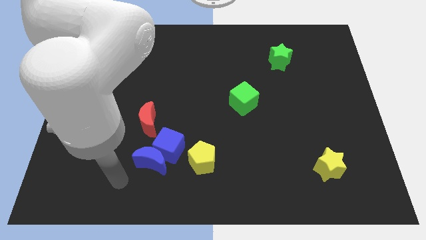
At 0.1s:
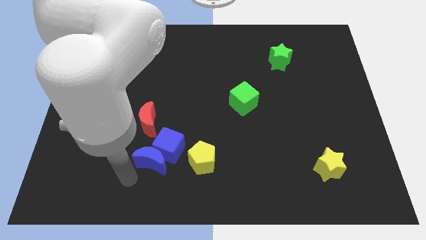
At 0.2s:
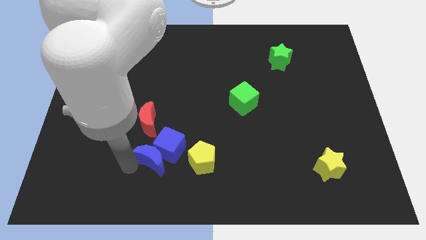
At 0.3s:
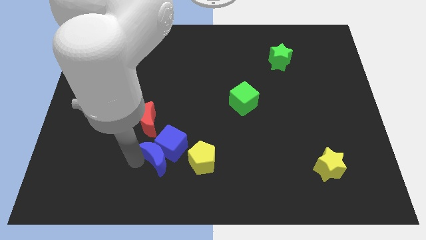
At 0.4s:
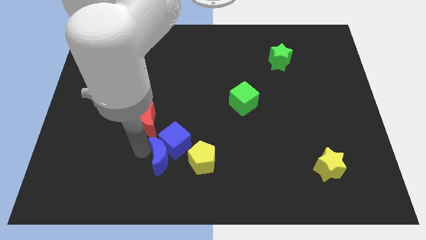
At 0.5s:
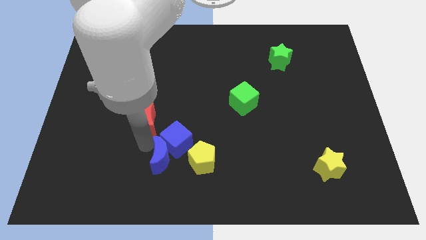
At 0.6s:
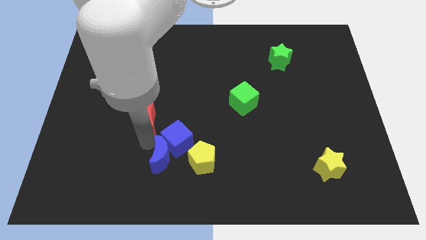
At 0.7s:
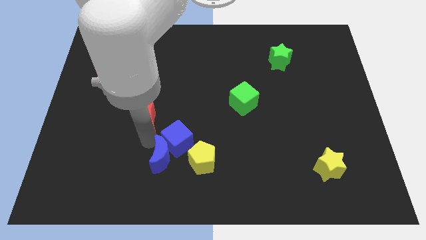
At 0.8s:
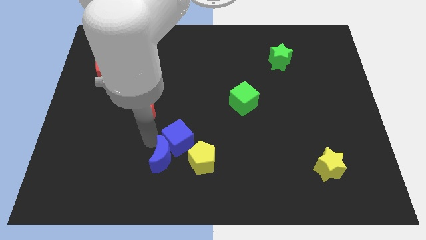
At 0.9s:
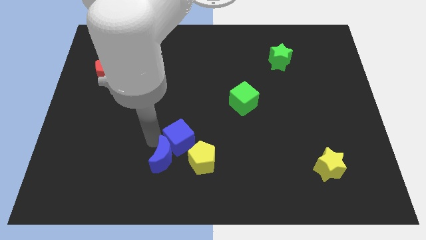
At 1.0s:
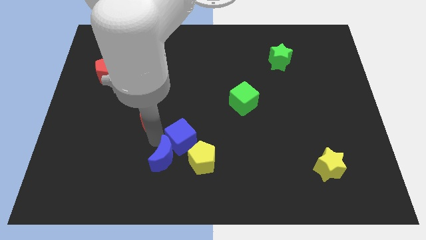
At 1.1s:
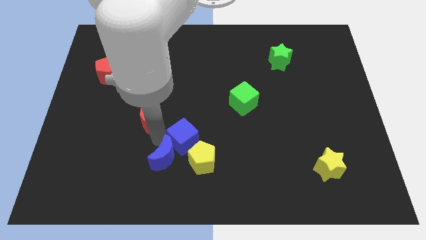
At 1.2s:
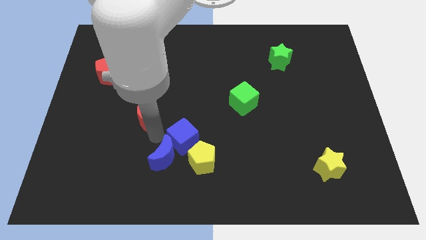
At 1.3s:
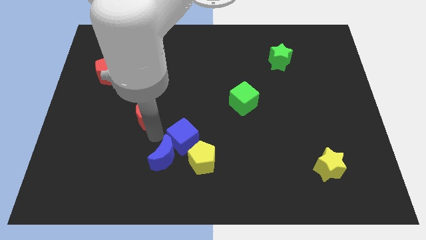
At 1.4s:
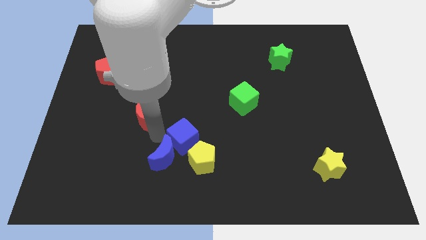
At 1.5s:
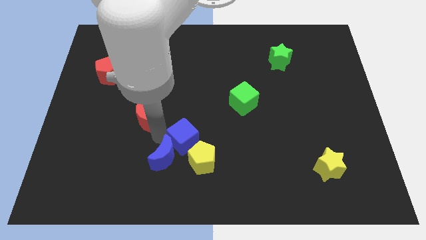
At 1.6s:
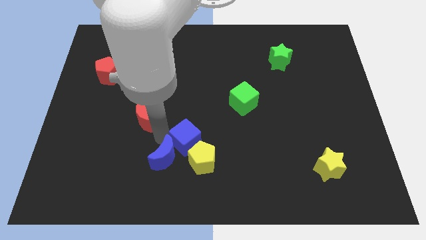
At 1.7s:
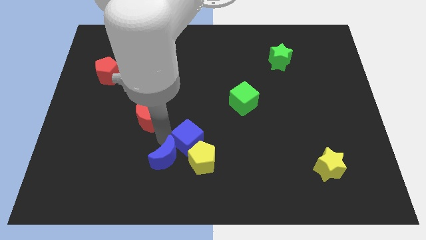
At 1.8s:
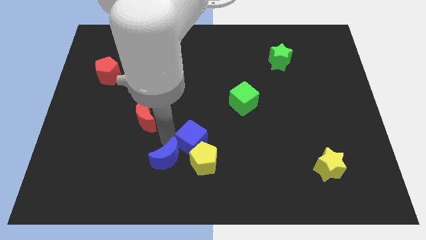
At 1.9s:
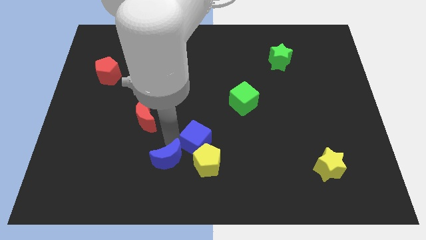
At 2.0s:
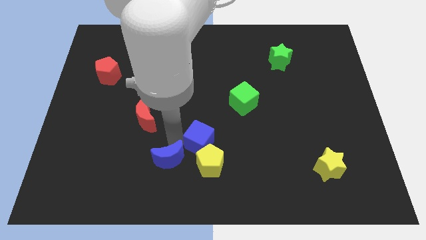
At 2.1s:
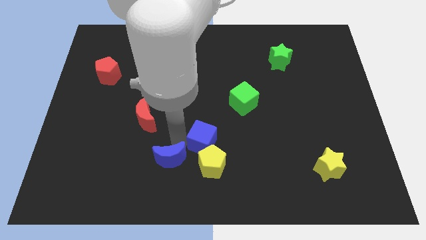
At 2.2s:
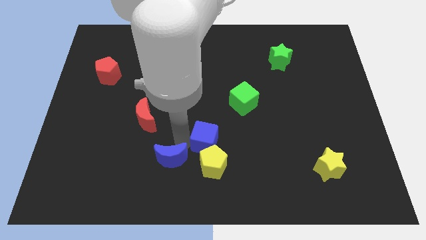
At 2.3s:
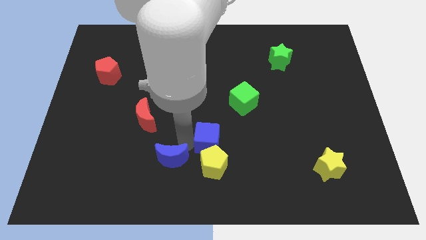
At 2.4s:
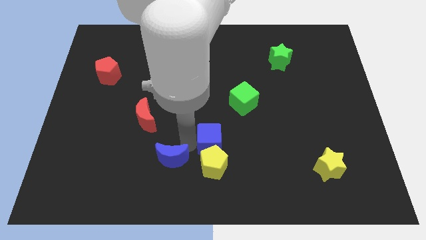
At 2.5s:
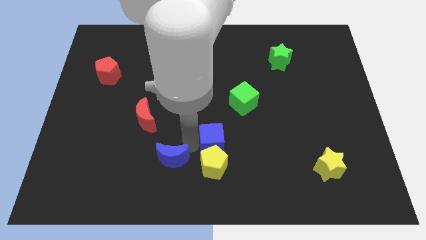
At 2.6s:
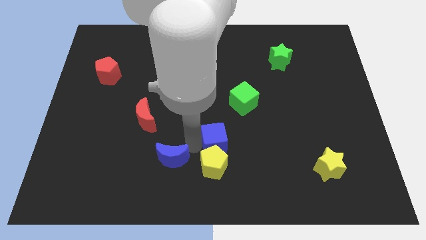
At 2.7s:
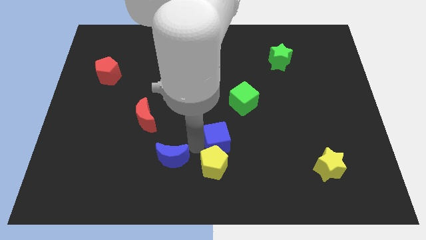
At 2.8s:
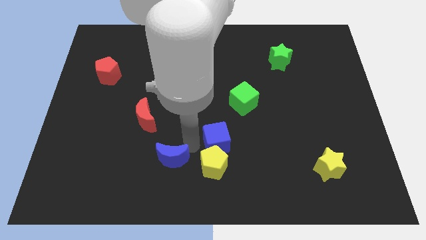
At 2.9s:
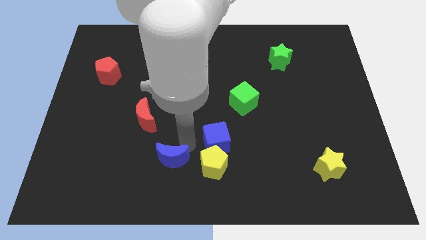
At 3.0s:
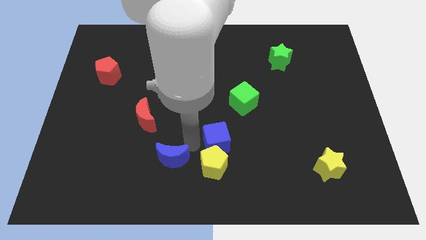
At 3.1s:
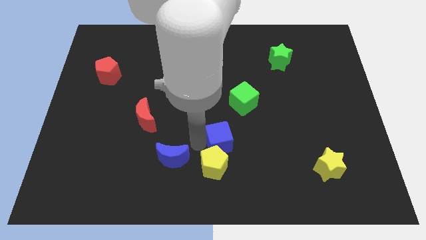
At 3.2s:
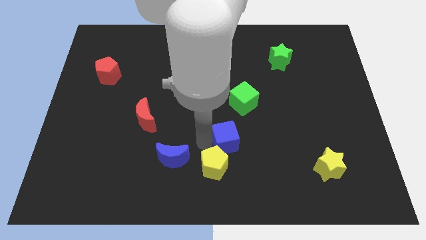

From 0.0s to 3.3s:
pull the blue cube apart from the blue moon, yellow pentagon, and red moon

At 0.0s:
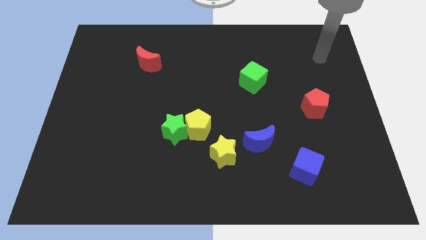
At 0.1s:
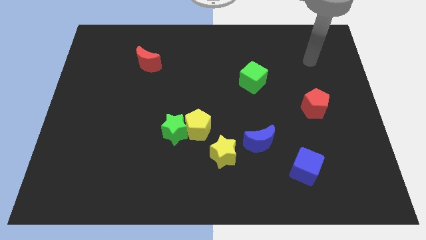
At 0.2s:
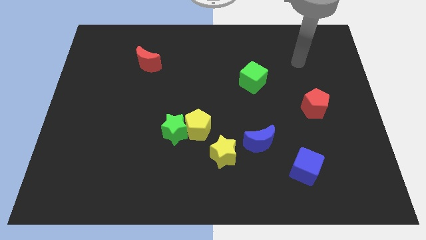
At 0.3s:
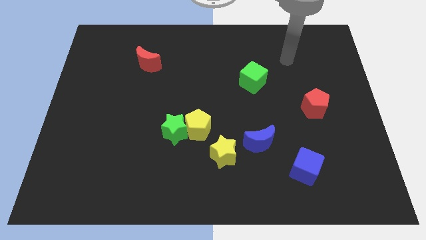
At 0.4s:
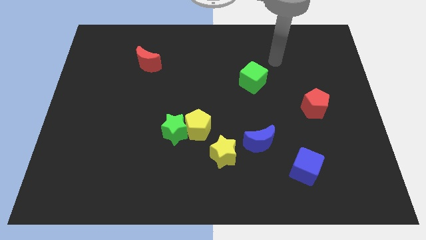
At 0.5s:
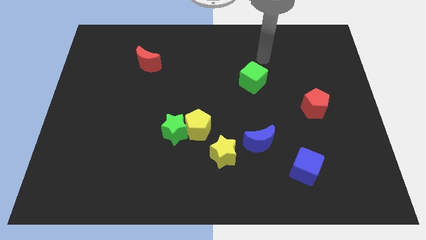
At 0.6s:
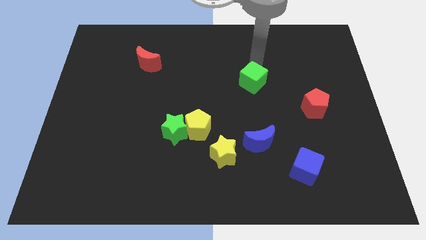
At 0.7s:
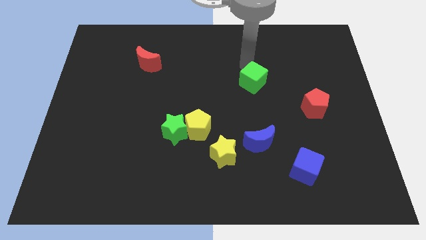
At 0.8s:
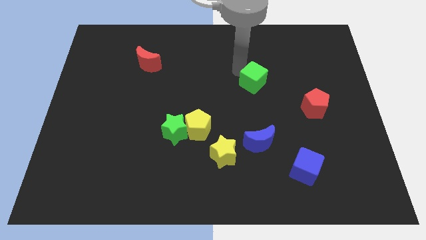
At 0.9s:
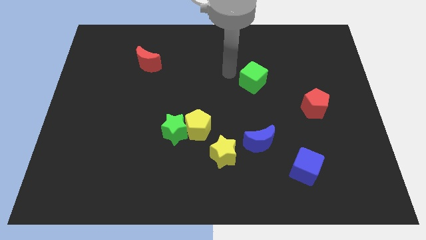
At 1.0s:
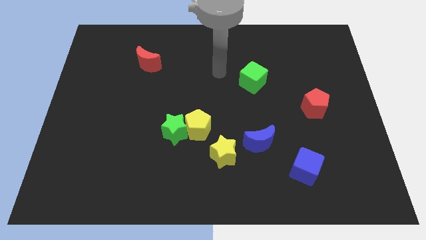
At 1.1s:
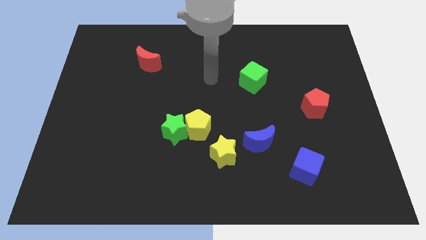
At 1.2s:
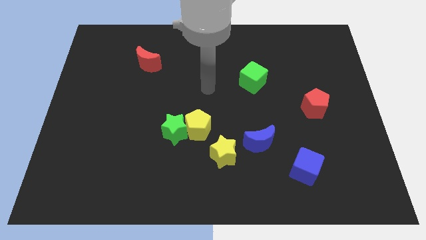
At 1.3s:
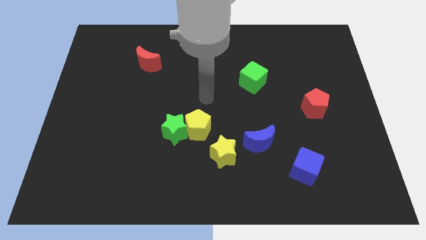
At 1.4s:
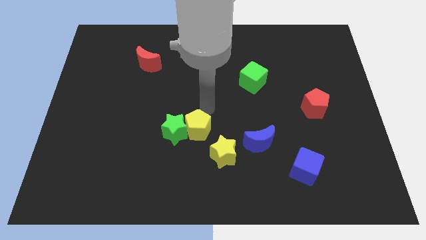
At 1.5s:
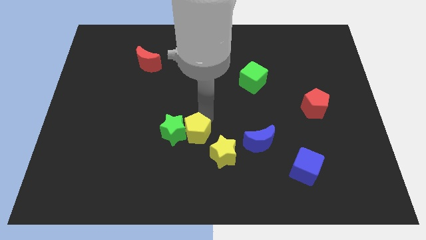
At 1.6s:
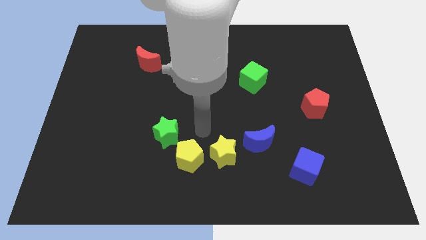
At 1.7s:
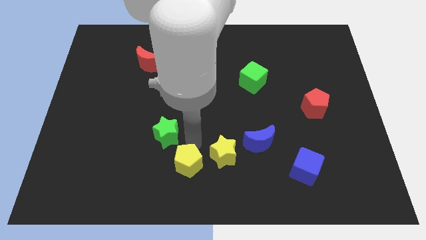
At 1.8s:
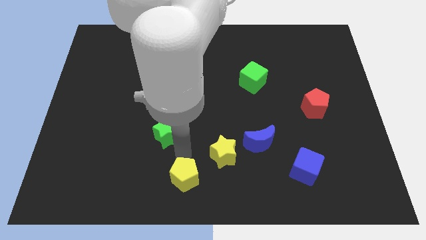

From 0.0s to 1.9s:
separate the green star from the yellow pentagon

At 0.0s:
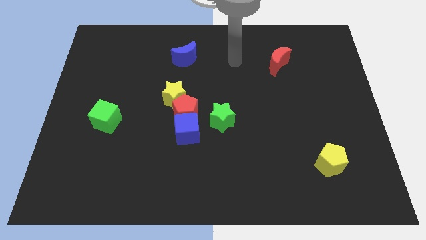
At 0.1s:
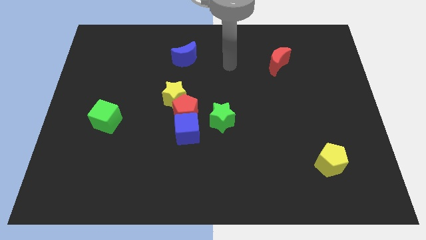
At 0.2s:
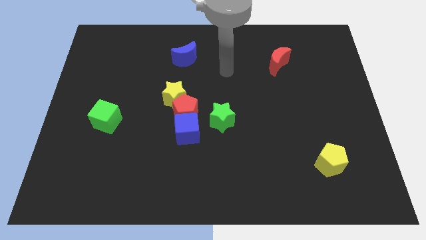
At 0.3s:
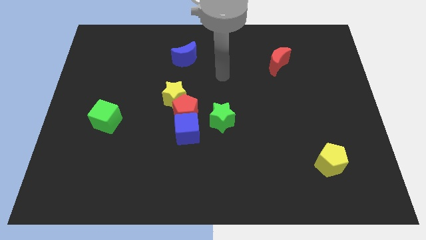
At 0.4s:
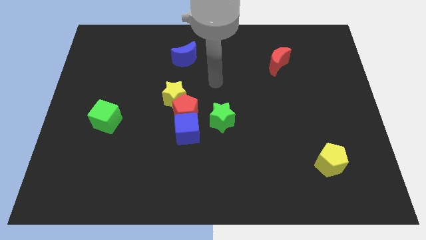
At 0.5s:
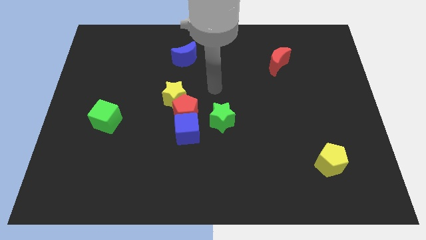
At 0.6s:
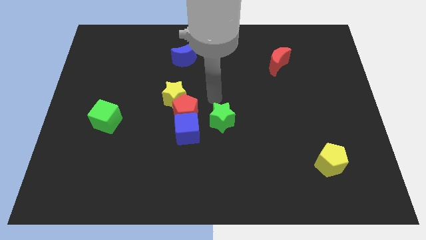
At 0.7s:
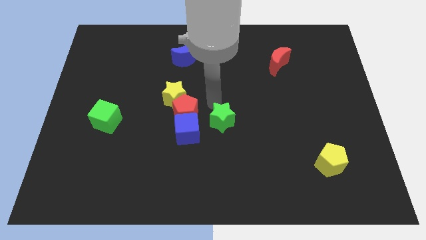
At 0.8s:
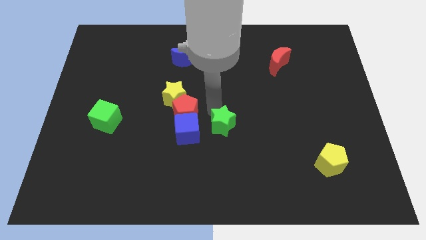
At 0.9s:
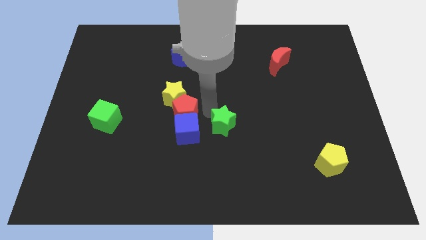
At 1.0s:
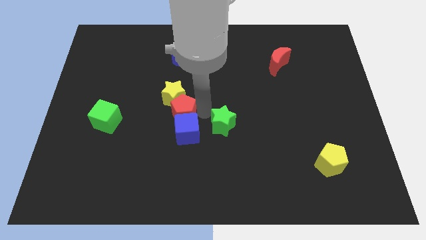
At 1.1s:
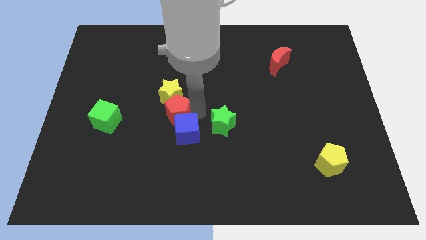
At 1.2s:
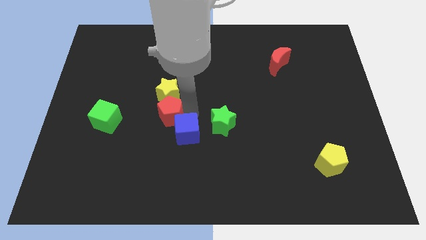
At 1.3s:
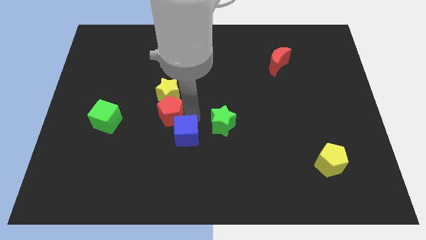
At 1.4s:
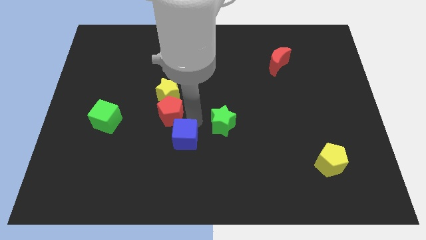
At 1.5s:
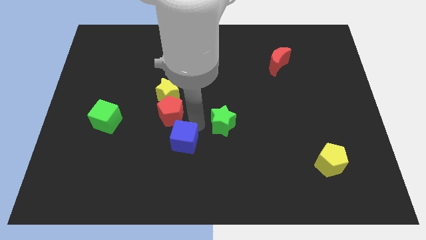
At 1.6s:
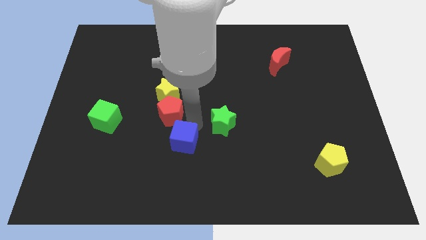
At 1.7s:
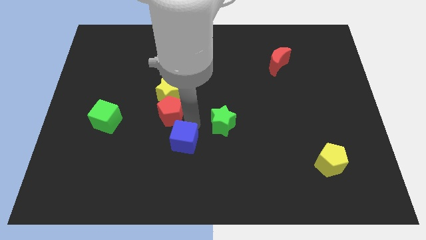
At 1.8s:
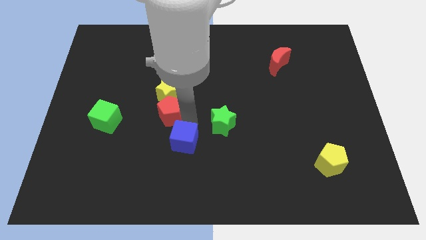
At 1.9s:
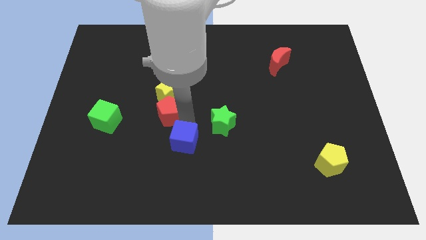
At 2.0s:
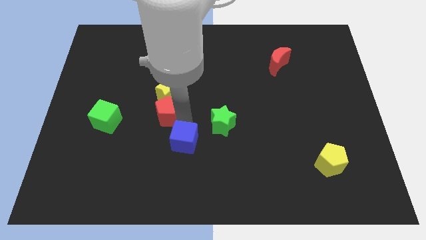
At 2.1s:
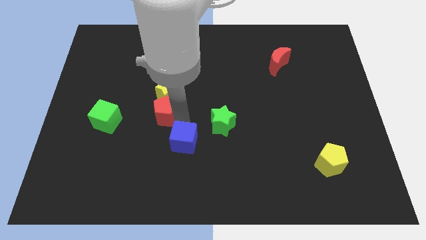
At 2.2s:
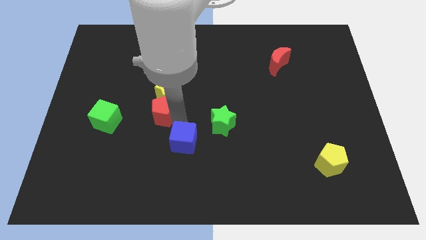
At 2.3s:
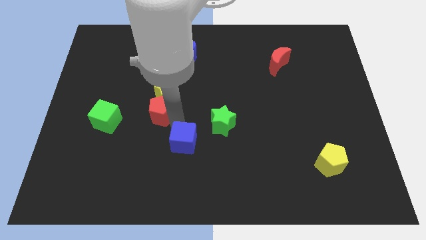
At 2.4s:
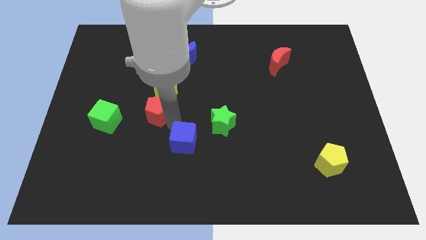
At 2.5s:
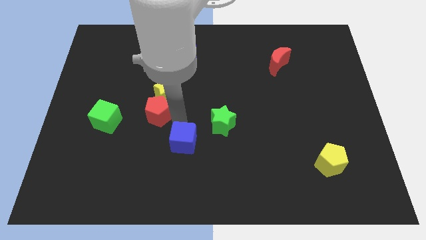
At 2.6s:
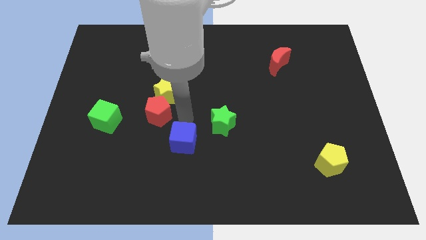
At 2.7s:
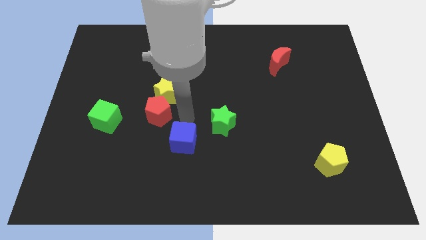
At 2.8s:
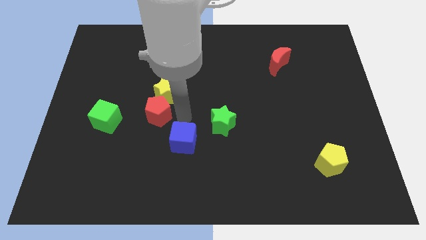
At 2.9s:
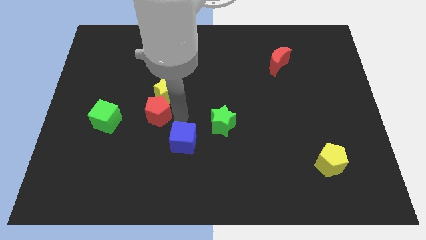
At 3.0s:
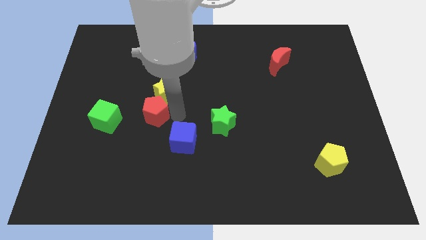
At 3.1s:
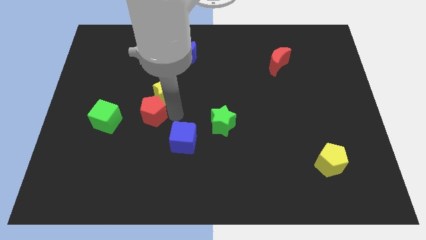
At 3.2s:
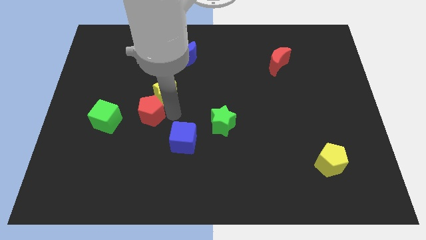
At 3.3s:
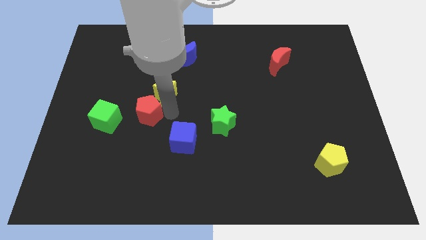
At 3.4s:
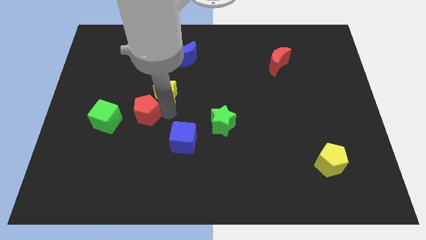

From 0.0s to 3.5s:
pull the red pentagon apart from the clump

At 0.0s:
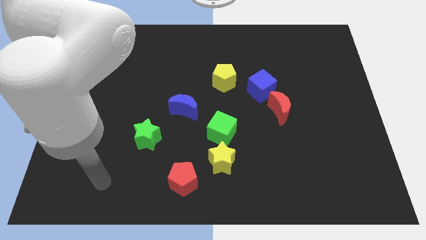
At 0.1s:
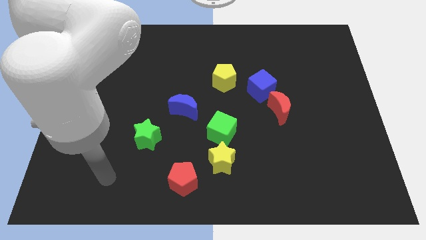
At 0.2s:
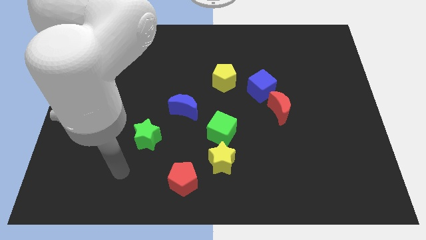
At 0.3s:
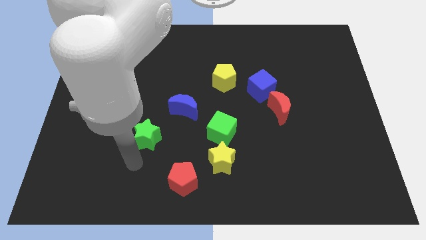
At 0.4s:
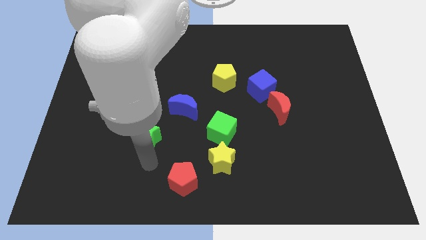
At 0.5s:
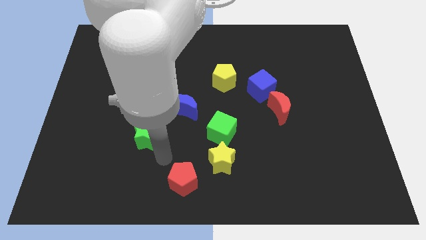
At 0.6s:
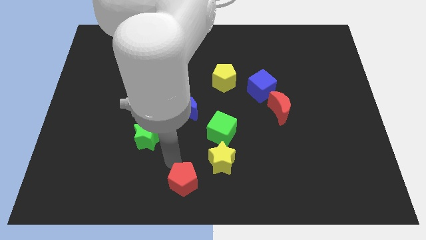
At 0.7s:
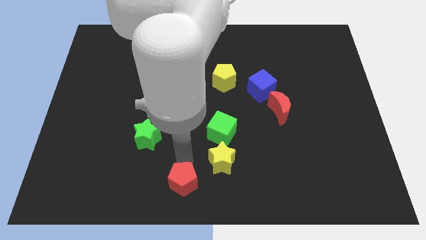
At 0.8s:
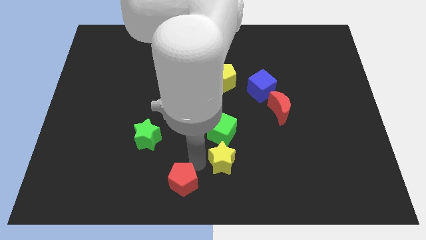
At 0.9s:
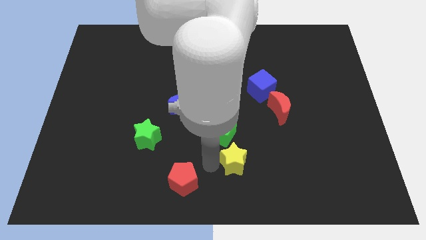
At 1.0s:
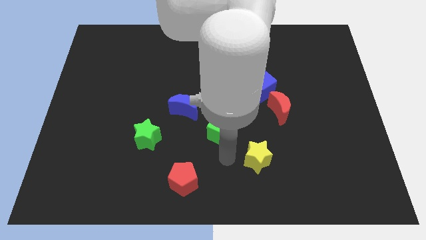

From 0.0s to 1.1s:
pull the green cube apart from the yellow star
